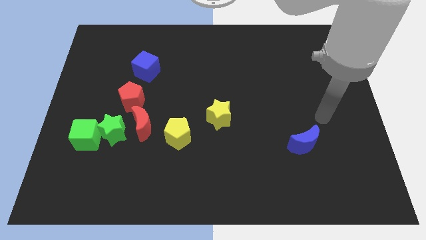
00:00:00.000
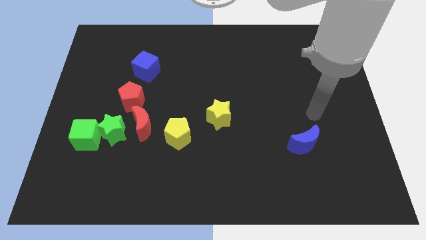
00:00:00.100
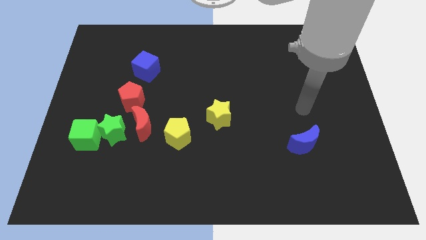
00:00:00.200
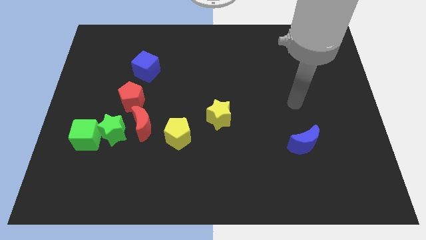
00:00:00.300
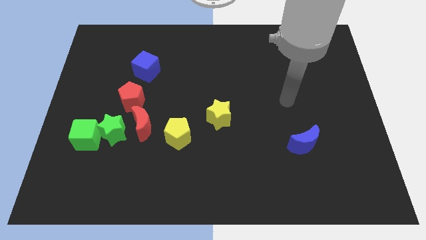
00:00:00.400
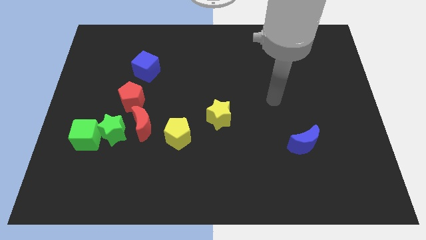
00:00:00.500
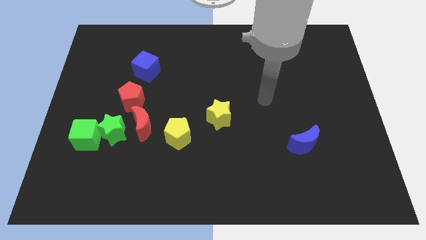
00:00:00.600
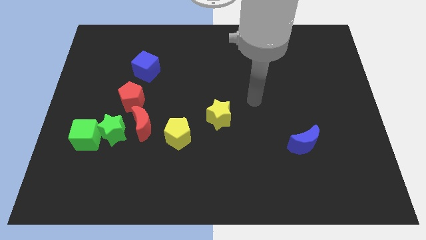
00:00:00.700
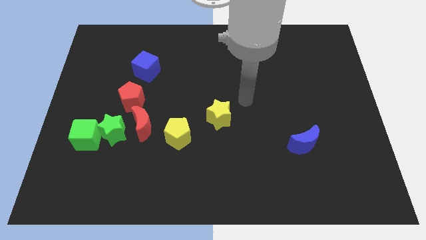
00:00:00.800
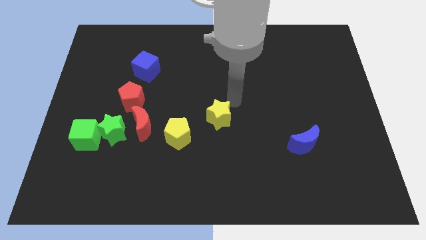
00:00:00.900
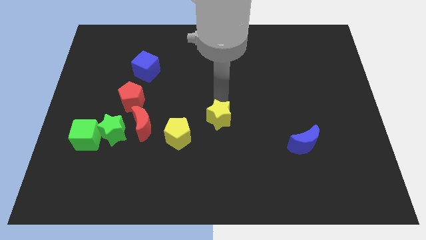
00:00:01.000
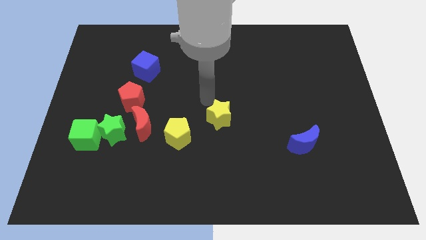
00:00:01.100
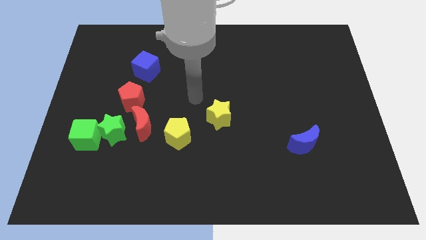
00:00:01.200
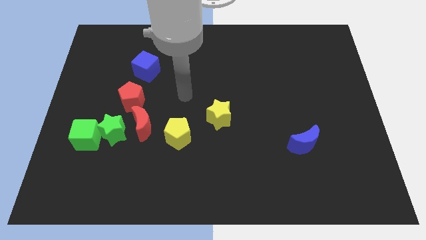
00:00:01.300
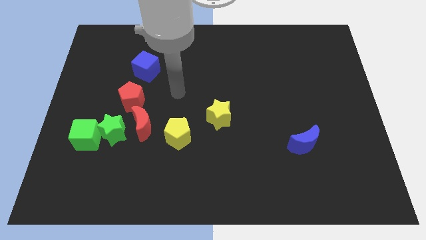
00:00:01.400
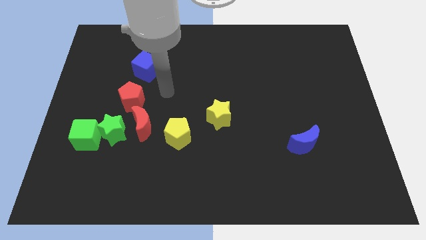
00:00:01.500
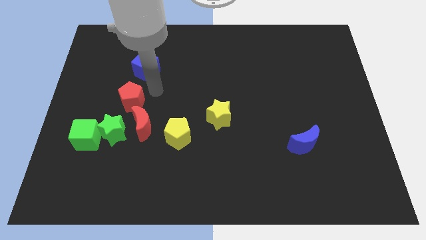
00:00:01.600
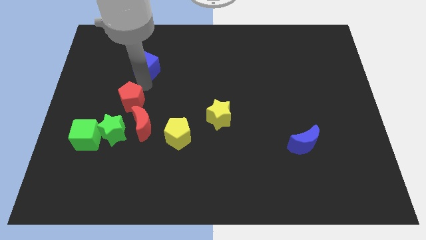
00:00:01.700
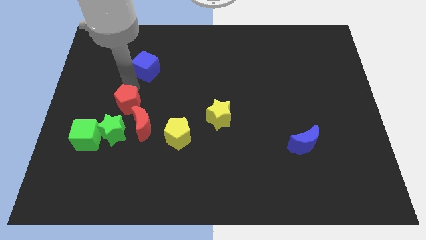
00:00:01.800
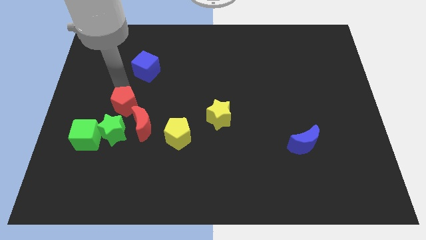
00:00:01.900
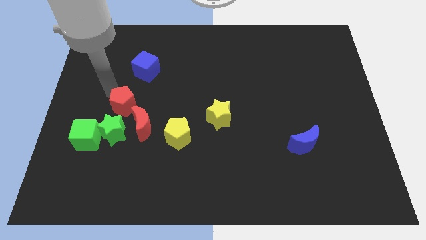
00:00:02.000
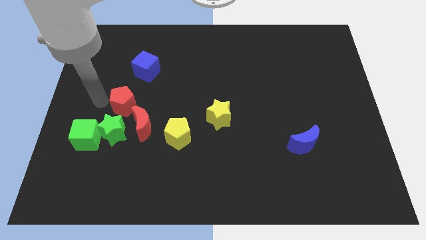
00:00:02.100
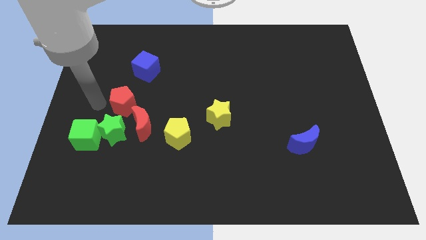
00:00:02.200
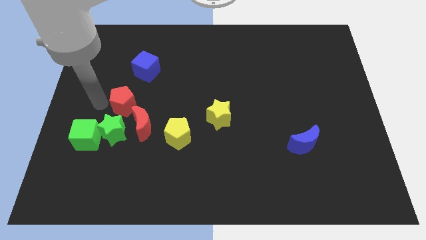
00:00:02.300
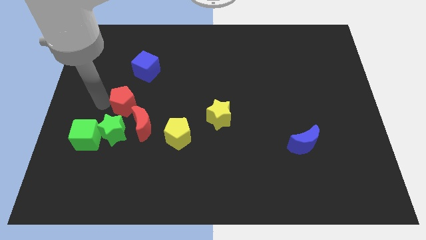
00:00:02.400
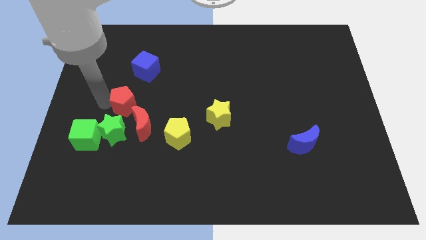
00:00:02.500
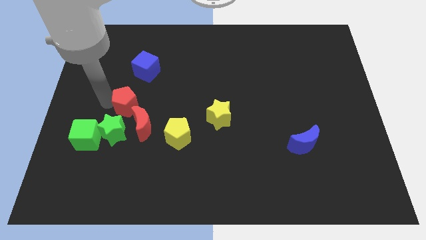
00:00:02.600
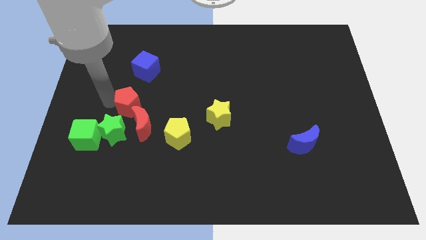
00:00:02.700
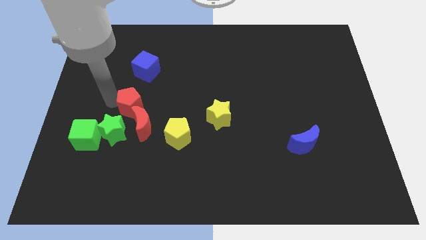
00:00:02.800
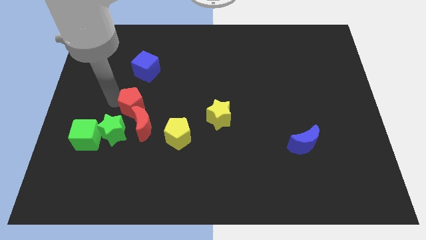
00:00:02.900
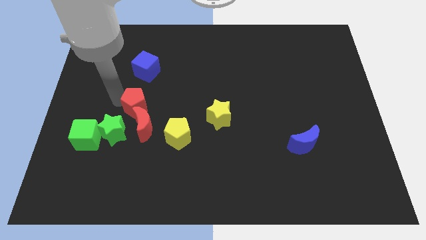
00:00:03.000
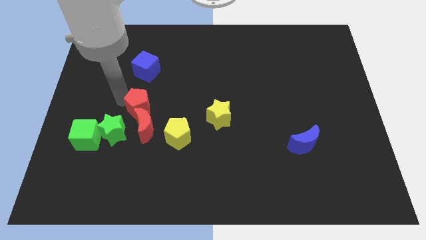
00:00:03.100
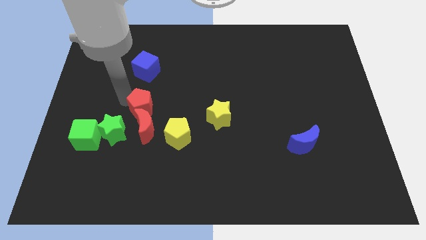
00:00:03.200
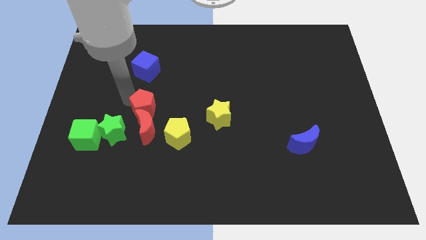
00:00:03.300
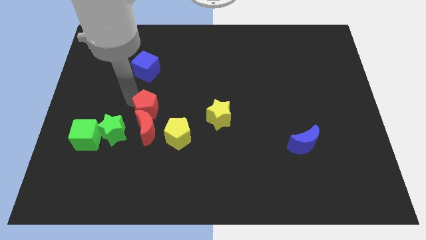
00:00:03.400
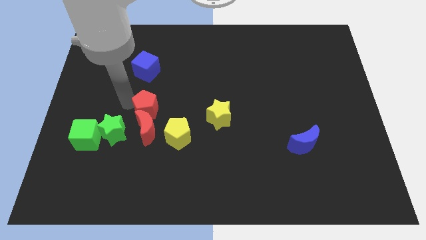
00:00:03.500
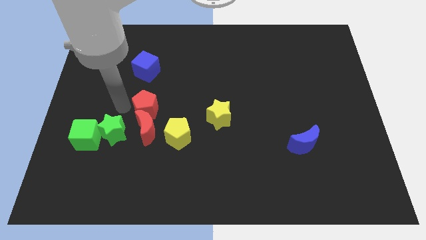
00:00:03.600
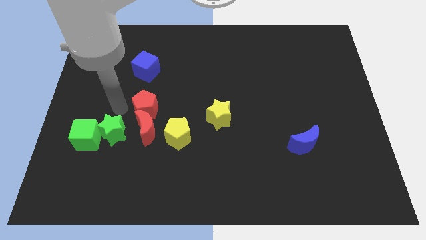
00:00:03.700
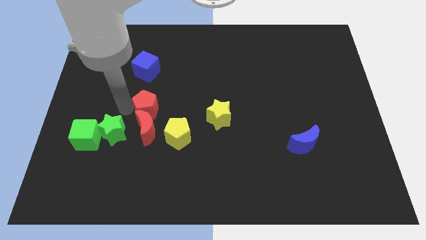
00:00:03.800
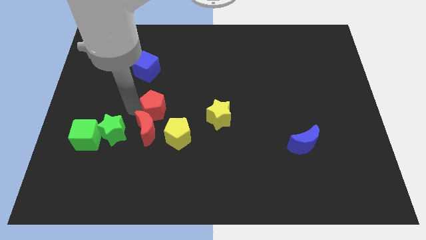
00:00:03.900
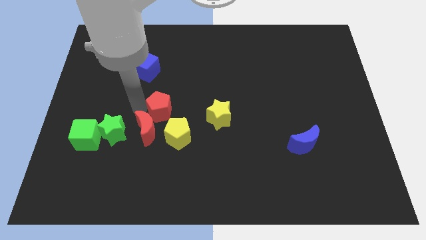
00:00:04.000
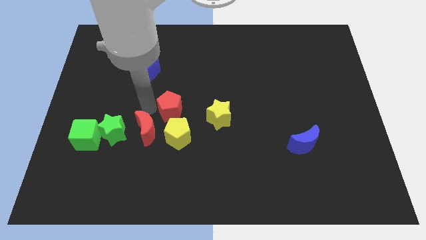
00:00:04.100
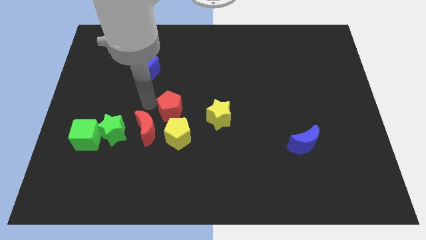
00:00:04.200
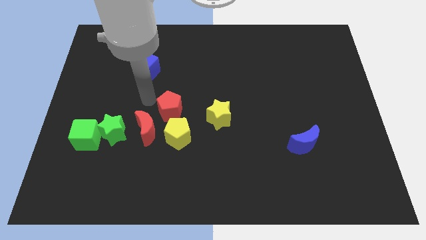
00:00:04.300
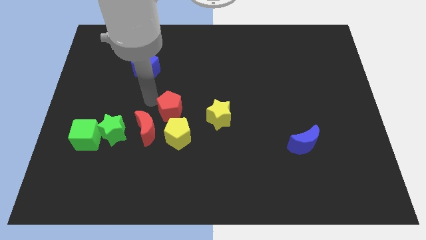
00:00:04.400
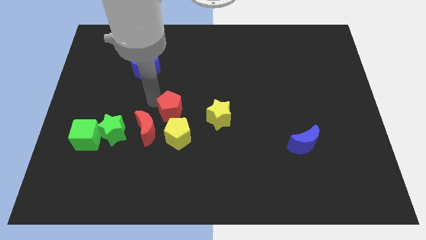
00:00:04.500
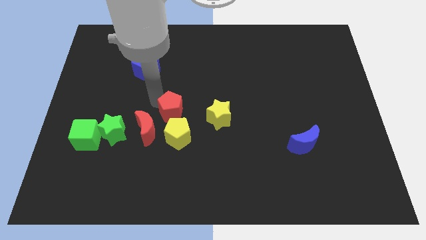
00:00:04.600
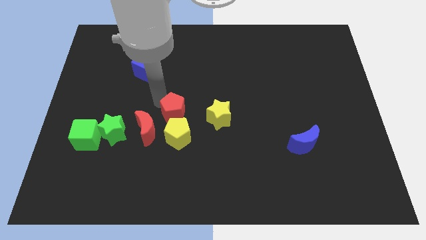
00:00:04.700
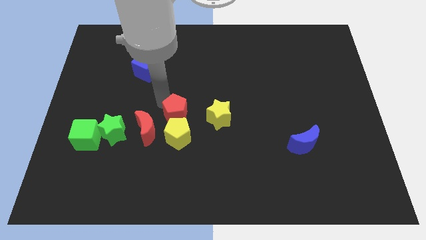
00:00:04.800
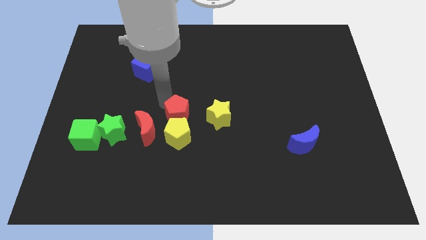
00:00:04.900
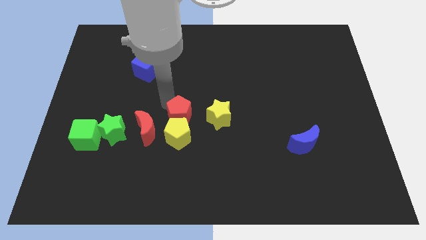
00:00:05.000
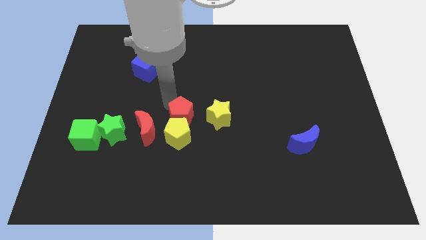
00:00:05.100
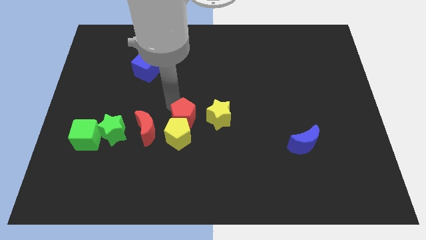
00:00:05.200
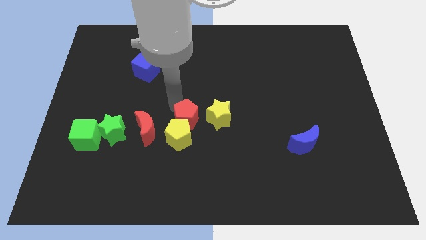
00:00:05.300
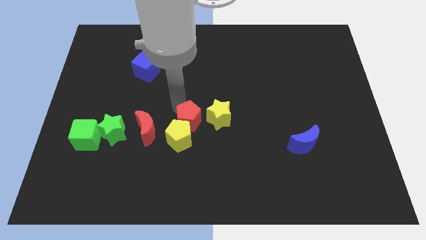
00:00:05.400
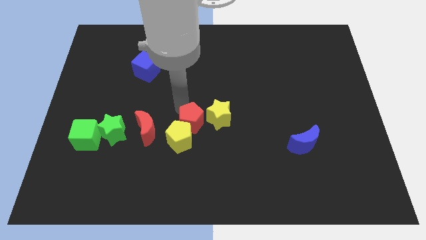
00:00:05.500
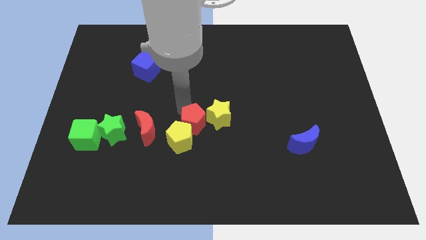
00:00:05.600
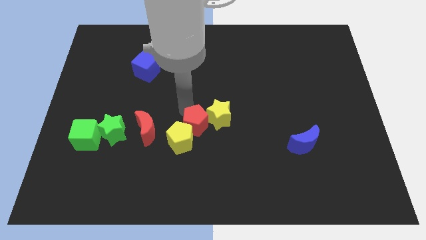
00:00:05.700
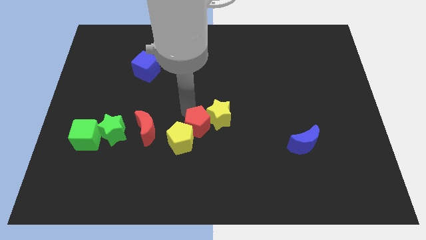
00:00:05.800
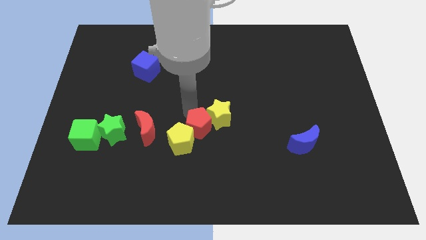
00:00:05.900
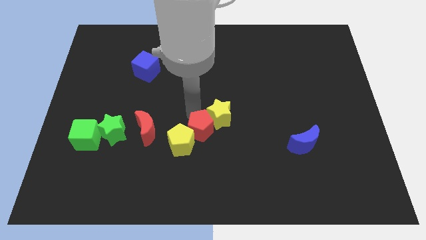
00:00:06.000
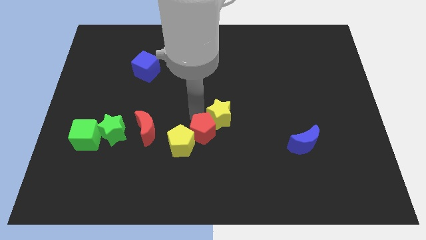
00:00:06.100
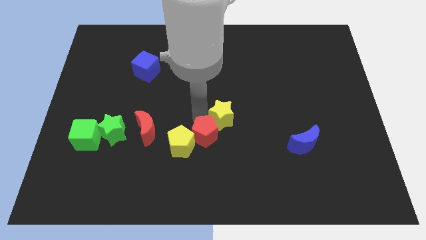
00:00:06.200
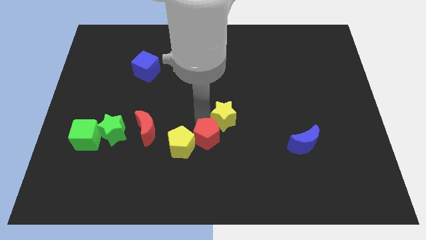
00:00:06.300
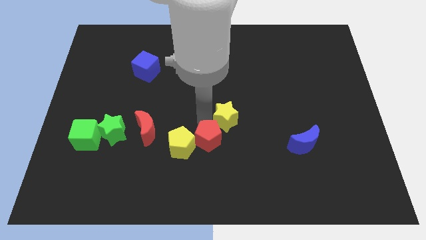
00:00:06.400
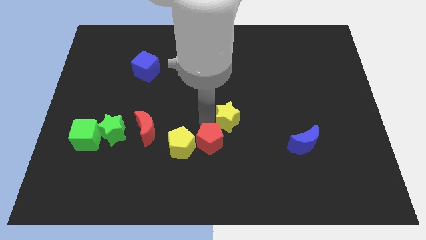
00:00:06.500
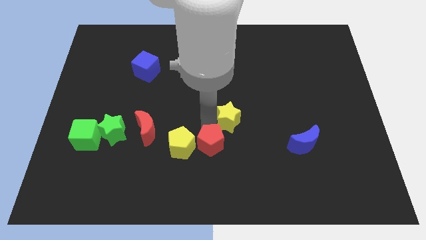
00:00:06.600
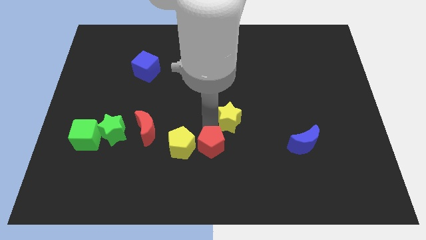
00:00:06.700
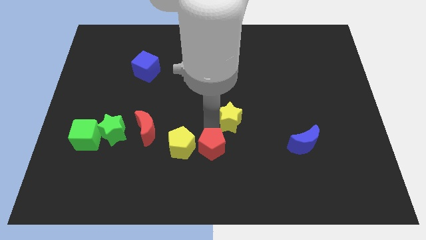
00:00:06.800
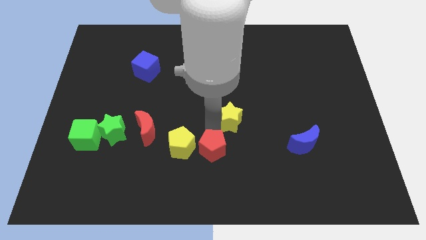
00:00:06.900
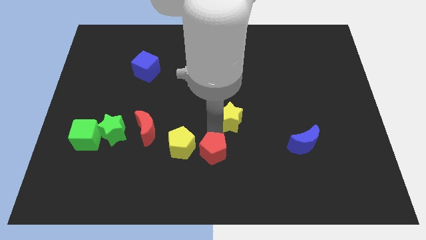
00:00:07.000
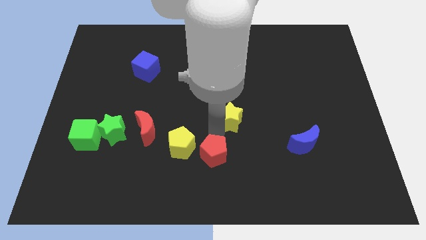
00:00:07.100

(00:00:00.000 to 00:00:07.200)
put the red pentagon to the bottom
